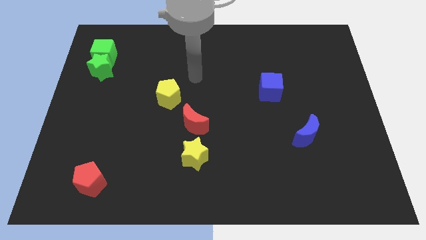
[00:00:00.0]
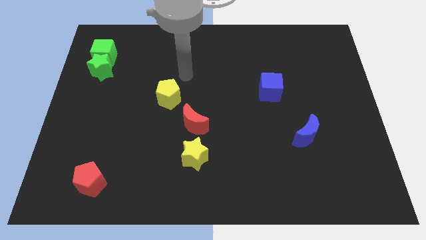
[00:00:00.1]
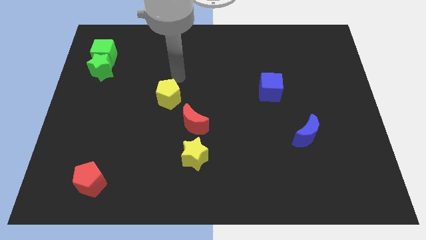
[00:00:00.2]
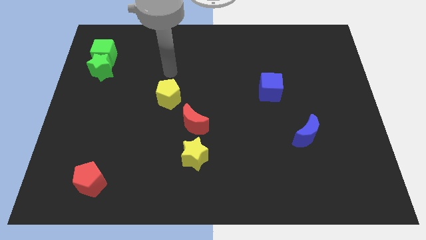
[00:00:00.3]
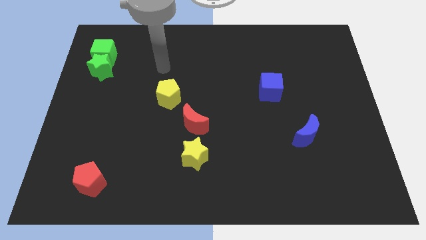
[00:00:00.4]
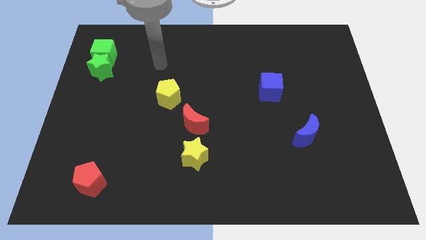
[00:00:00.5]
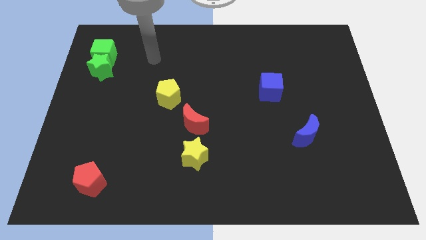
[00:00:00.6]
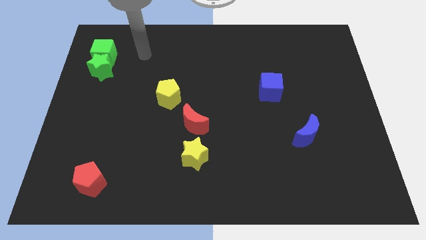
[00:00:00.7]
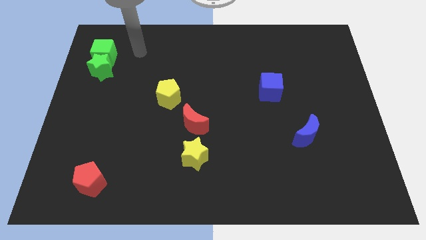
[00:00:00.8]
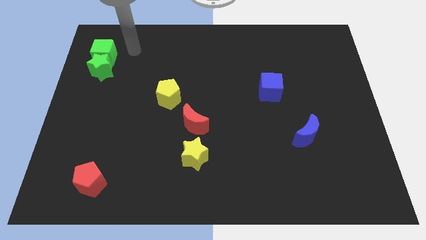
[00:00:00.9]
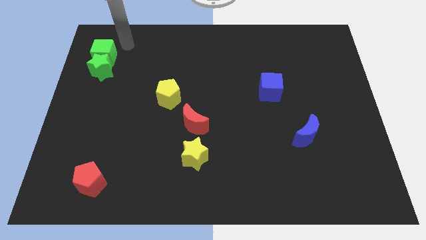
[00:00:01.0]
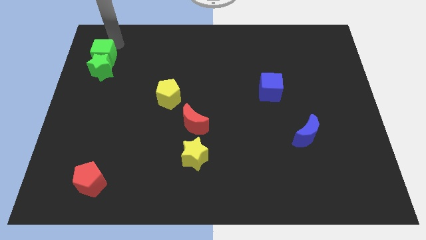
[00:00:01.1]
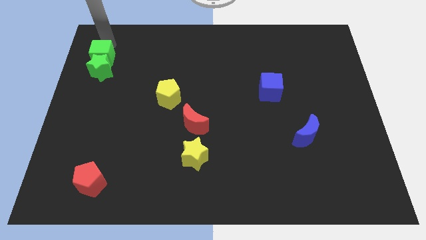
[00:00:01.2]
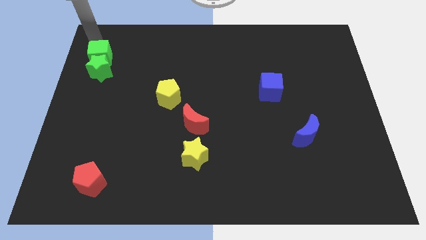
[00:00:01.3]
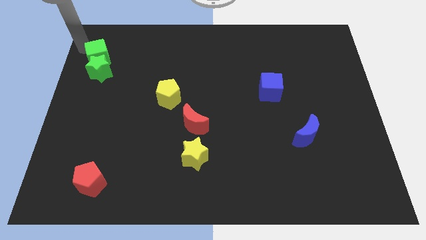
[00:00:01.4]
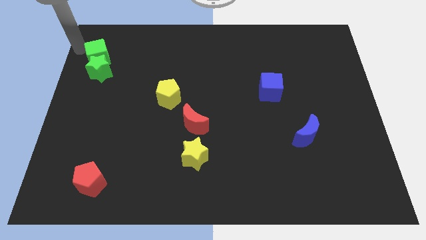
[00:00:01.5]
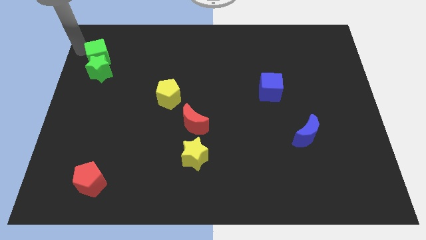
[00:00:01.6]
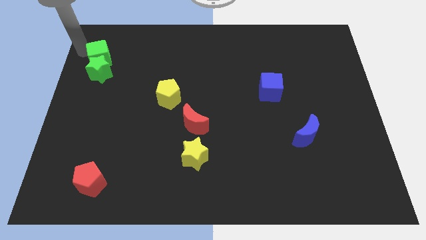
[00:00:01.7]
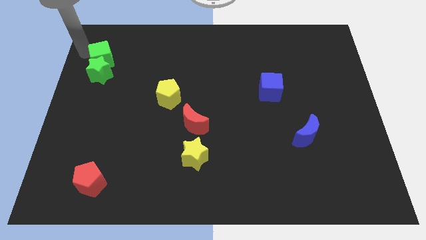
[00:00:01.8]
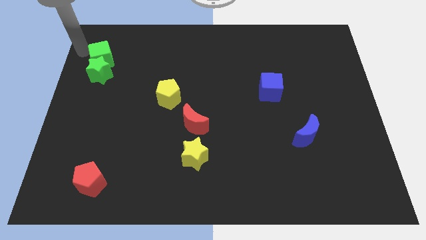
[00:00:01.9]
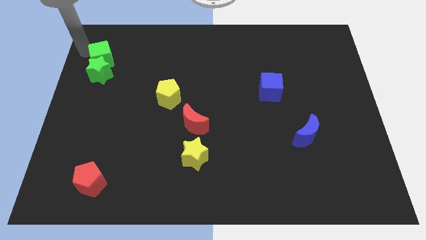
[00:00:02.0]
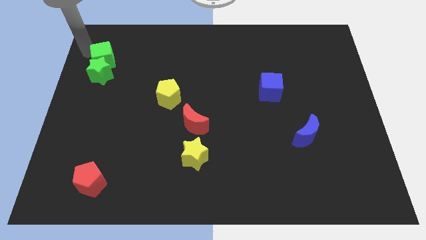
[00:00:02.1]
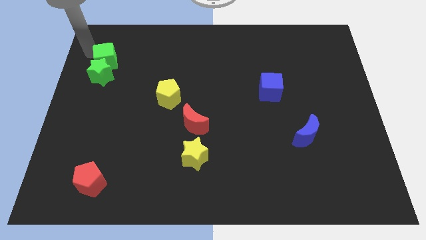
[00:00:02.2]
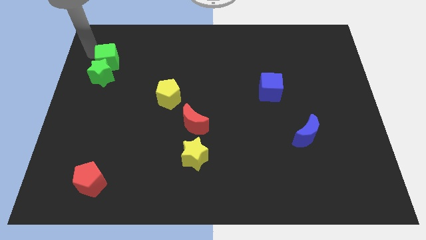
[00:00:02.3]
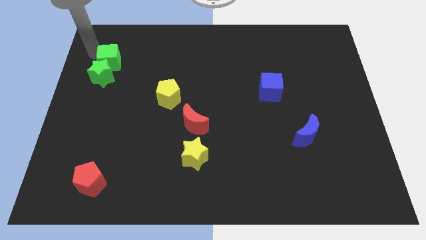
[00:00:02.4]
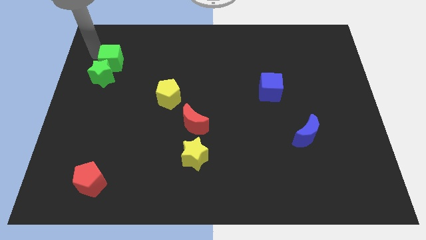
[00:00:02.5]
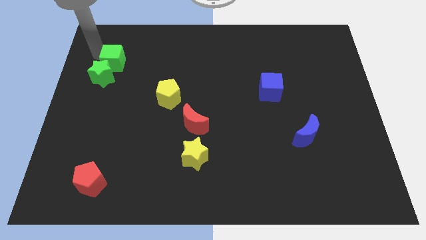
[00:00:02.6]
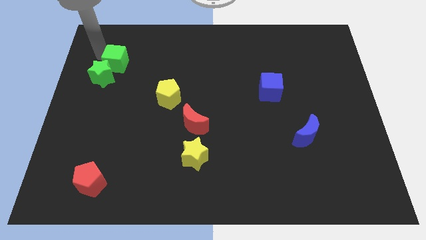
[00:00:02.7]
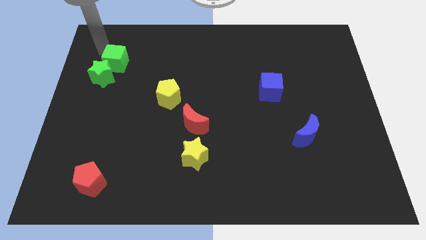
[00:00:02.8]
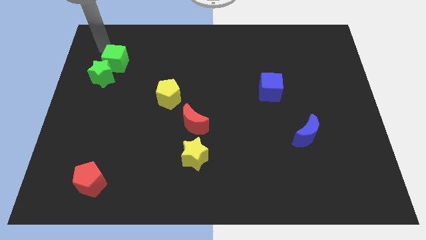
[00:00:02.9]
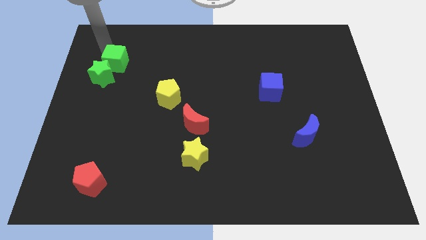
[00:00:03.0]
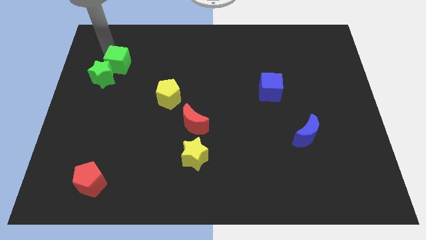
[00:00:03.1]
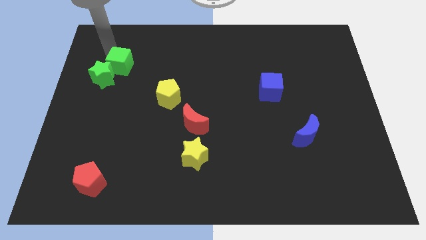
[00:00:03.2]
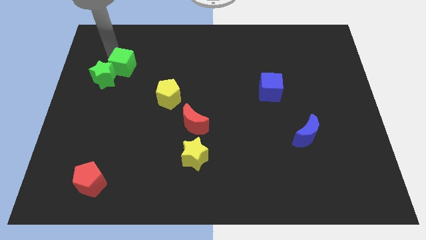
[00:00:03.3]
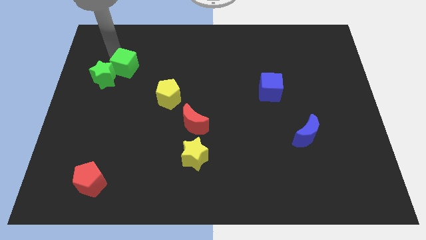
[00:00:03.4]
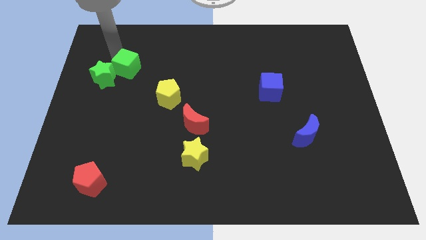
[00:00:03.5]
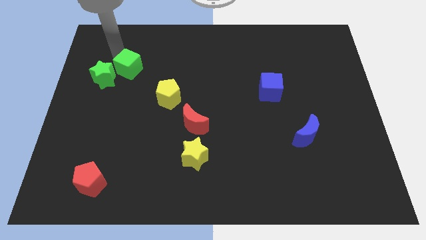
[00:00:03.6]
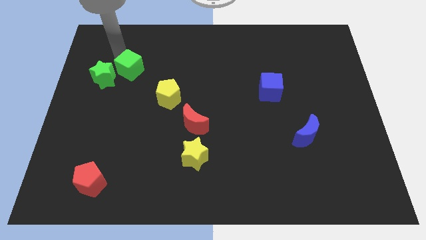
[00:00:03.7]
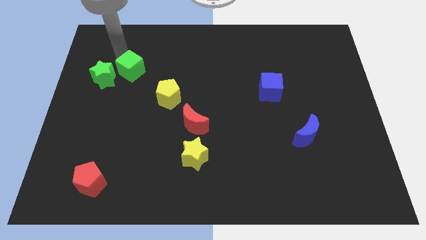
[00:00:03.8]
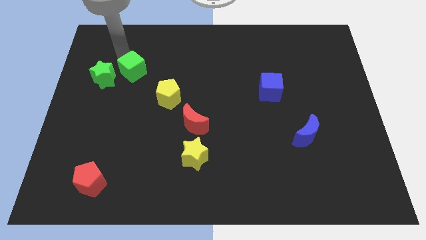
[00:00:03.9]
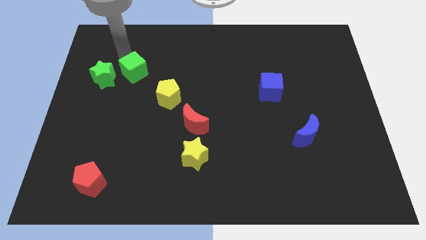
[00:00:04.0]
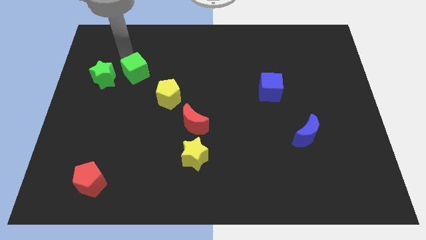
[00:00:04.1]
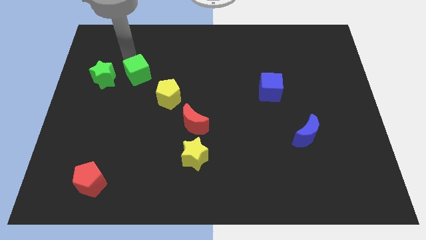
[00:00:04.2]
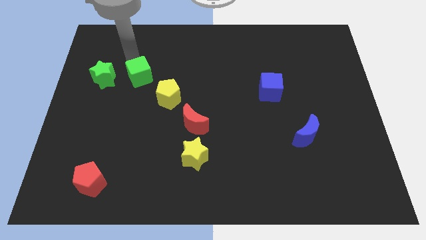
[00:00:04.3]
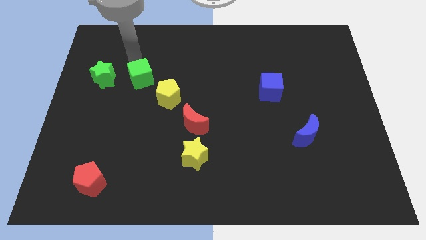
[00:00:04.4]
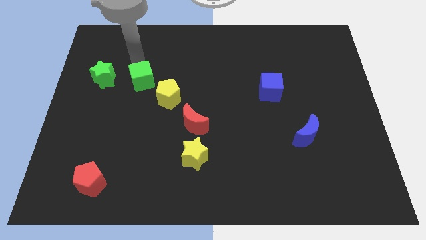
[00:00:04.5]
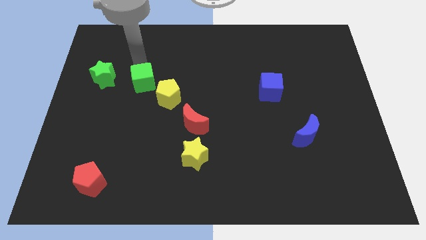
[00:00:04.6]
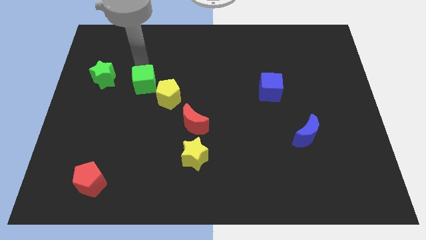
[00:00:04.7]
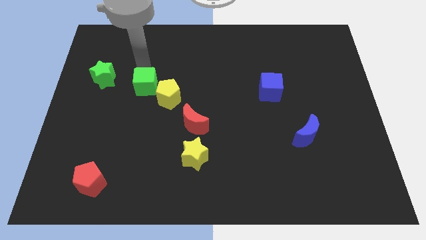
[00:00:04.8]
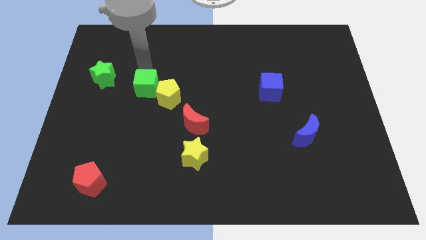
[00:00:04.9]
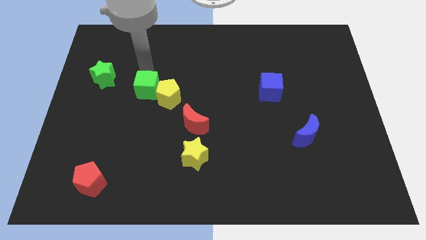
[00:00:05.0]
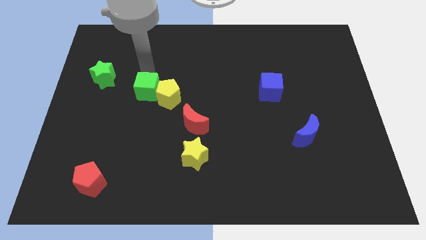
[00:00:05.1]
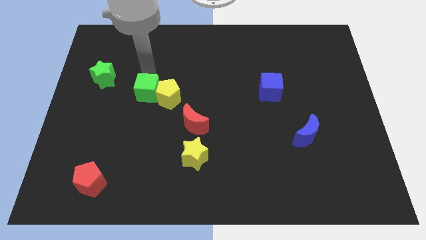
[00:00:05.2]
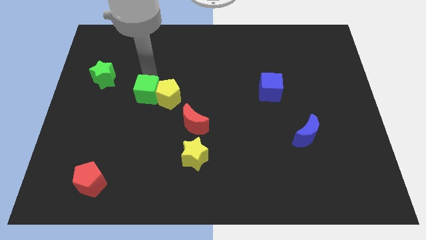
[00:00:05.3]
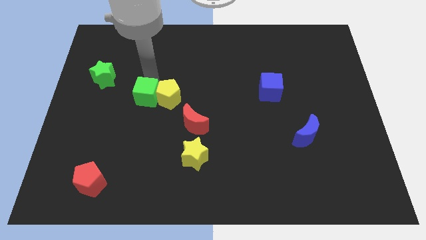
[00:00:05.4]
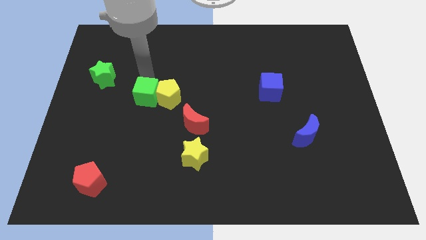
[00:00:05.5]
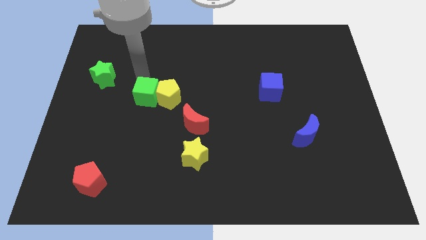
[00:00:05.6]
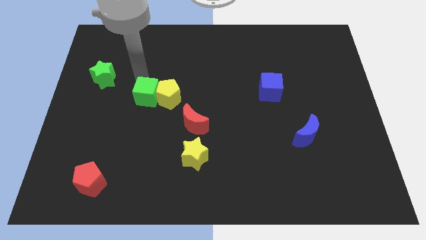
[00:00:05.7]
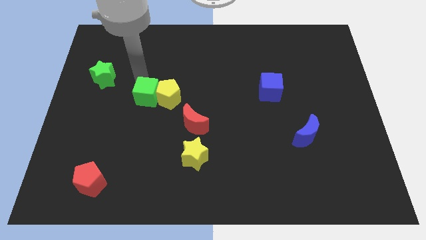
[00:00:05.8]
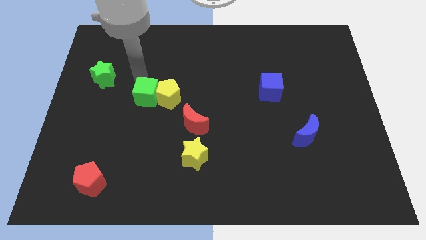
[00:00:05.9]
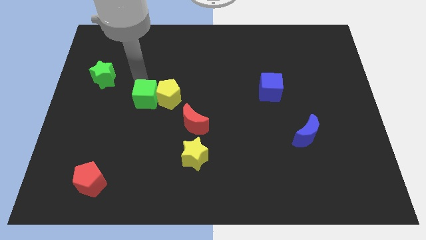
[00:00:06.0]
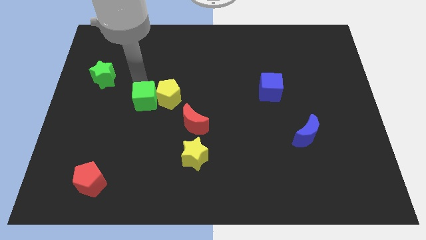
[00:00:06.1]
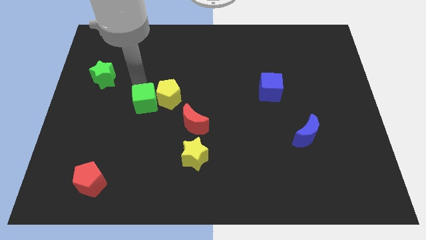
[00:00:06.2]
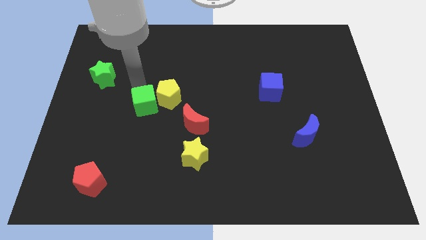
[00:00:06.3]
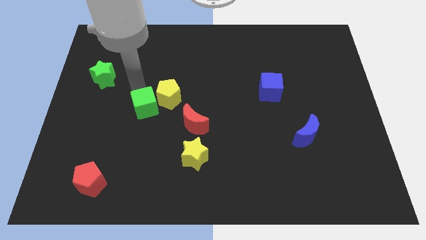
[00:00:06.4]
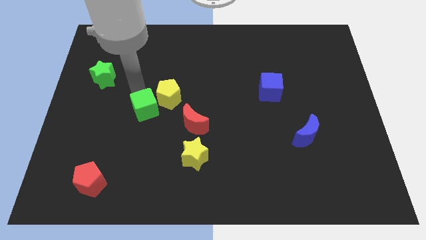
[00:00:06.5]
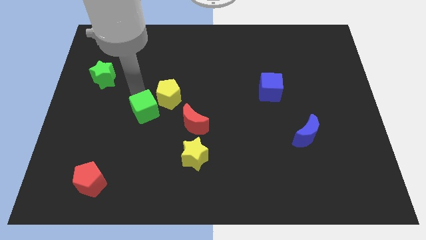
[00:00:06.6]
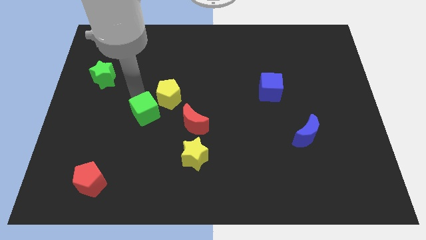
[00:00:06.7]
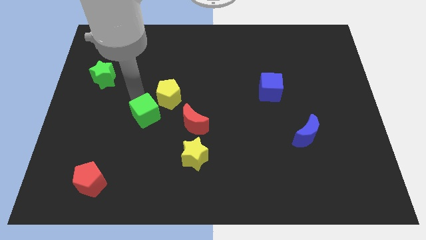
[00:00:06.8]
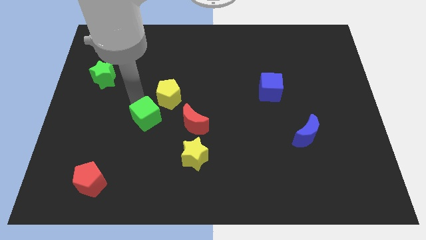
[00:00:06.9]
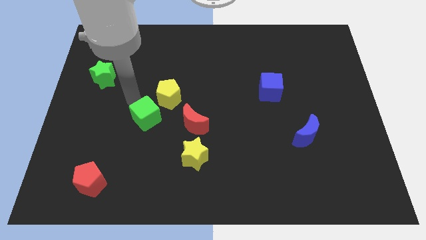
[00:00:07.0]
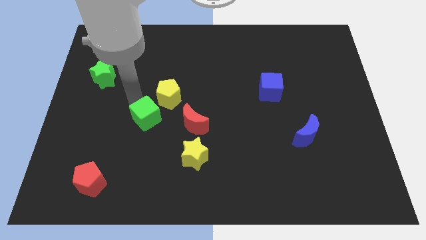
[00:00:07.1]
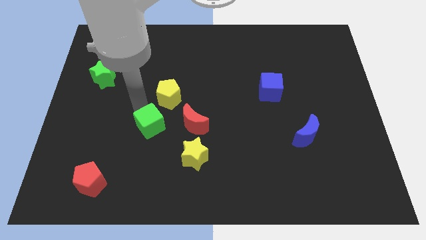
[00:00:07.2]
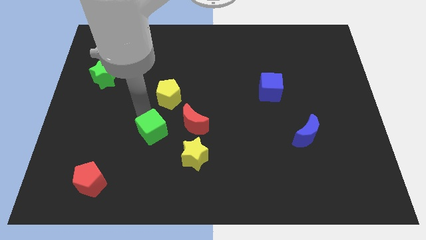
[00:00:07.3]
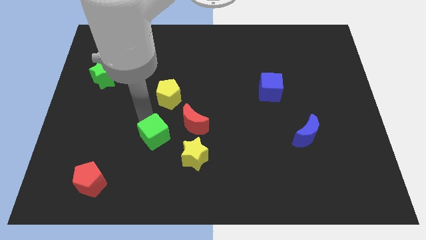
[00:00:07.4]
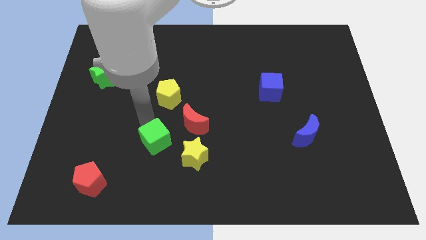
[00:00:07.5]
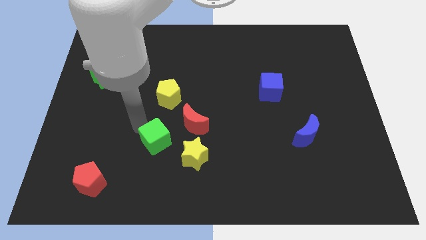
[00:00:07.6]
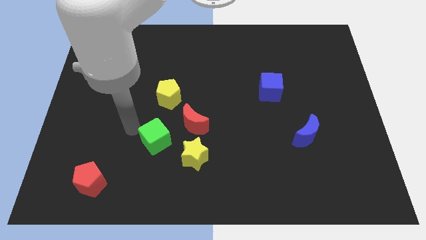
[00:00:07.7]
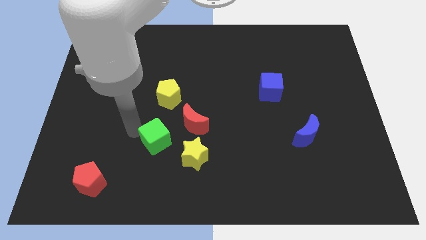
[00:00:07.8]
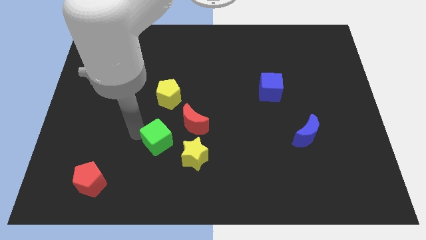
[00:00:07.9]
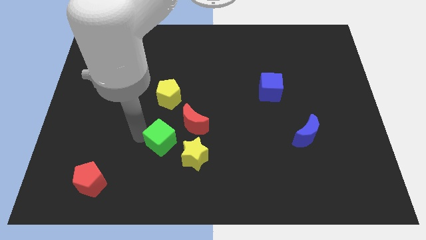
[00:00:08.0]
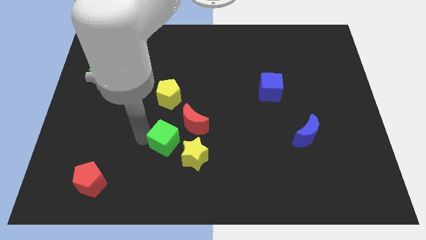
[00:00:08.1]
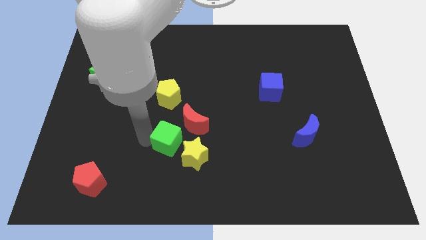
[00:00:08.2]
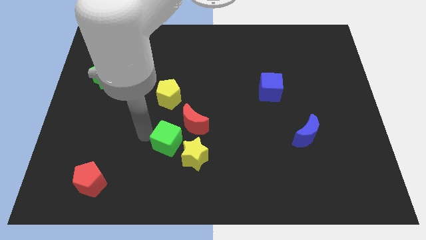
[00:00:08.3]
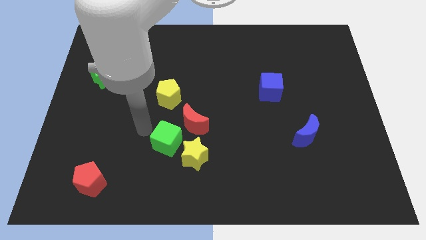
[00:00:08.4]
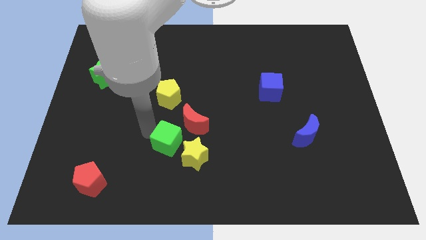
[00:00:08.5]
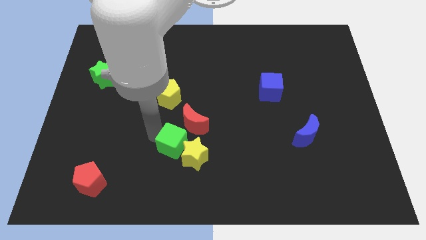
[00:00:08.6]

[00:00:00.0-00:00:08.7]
slide the green cube next to the yellow star
